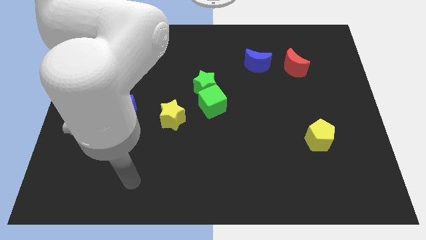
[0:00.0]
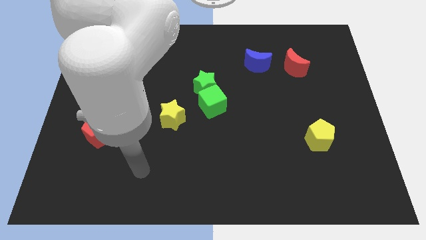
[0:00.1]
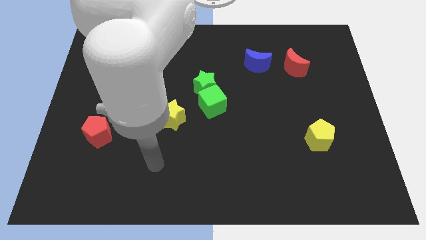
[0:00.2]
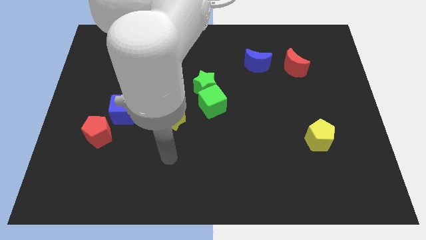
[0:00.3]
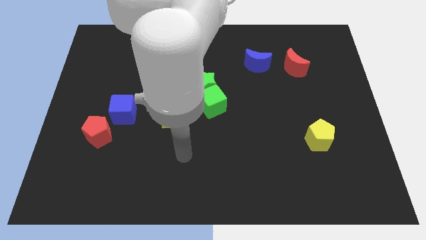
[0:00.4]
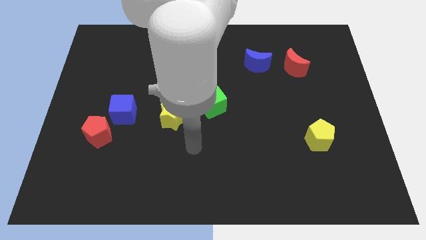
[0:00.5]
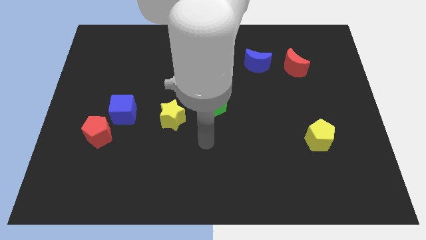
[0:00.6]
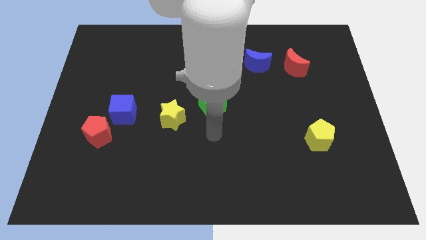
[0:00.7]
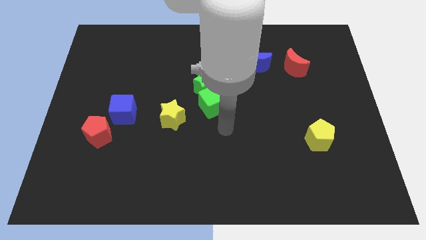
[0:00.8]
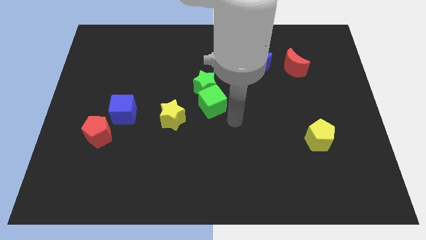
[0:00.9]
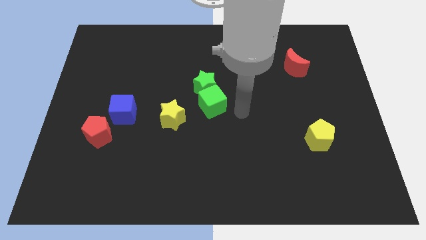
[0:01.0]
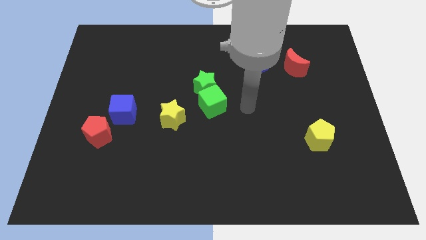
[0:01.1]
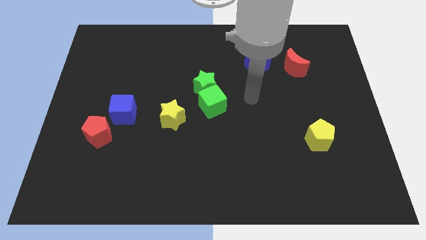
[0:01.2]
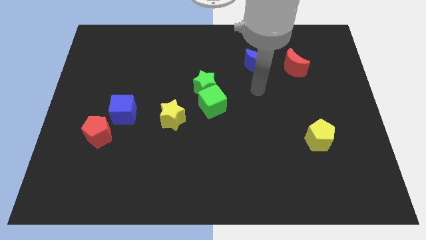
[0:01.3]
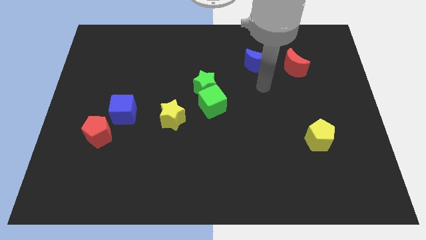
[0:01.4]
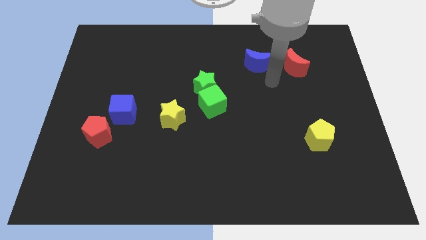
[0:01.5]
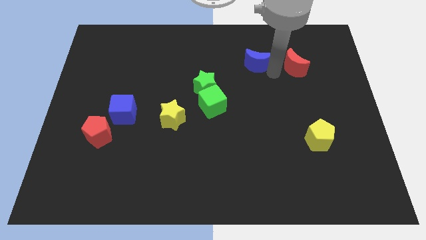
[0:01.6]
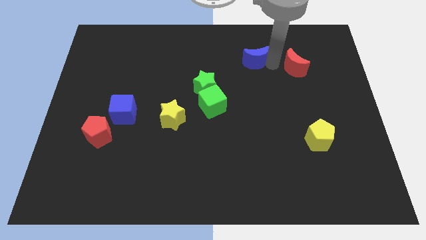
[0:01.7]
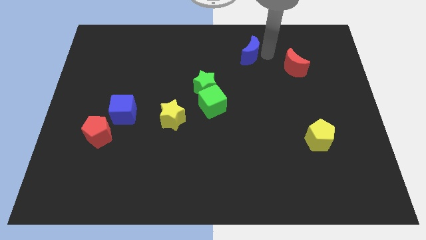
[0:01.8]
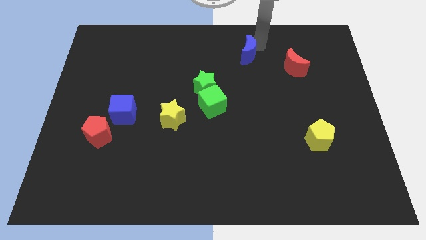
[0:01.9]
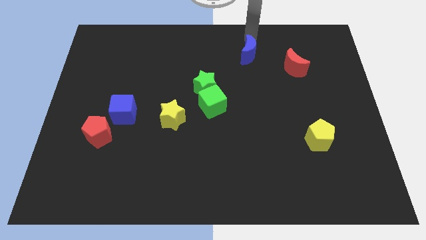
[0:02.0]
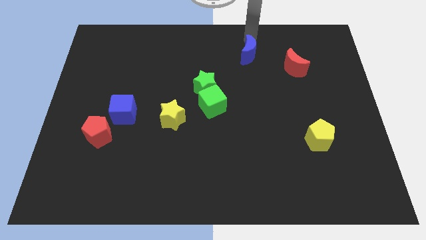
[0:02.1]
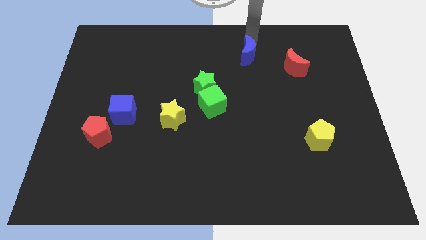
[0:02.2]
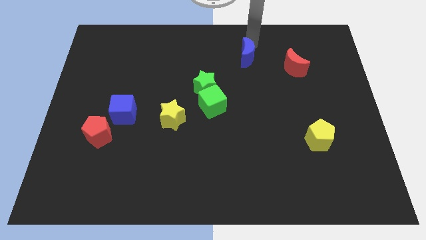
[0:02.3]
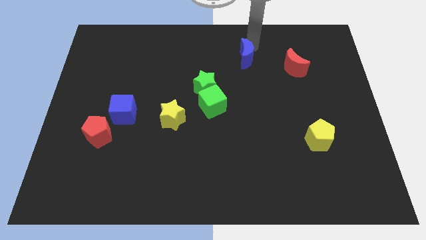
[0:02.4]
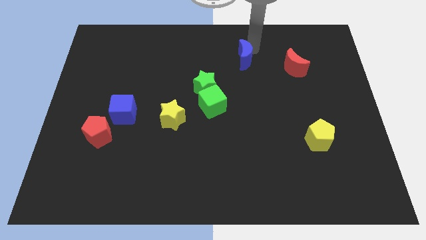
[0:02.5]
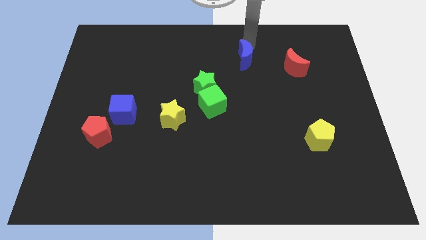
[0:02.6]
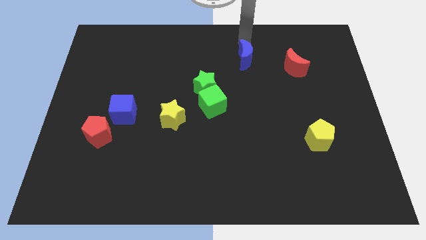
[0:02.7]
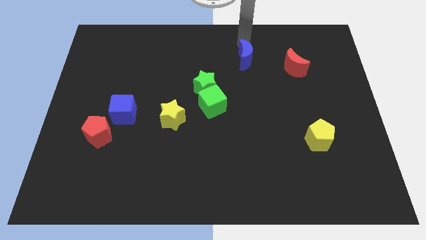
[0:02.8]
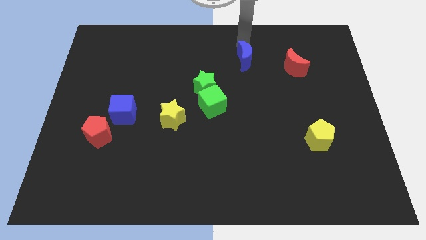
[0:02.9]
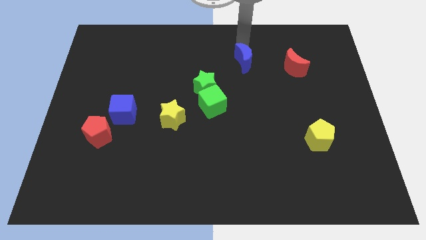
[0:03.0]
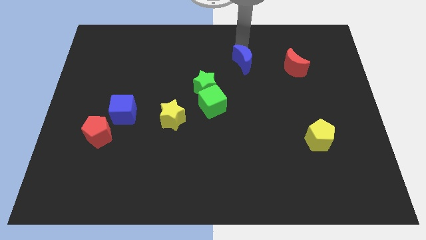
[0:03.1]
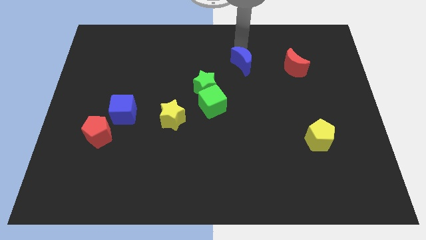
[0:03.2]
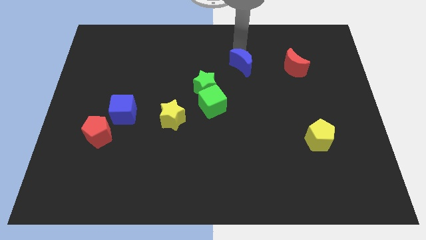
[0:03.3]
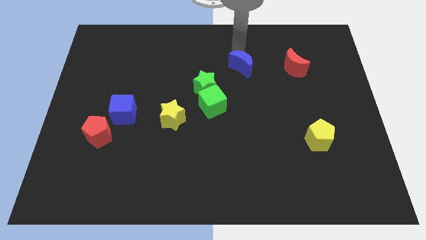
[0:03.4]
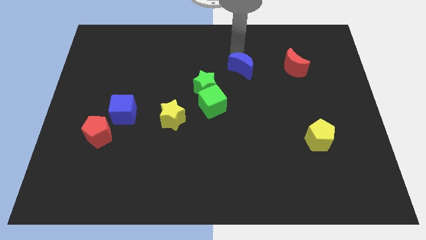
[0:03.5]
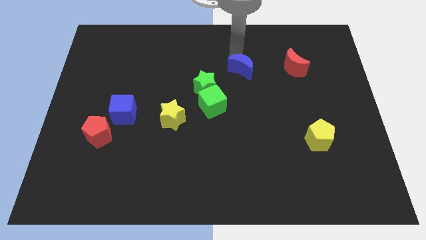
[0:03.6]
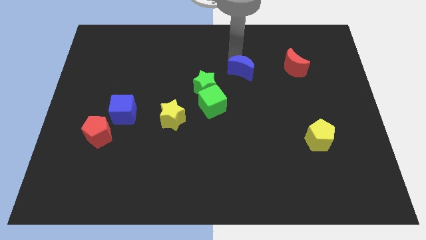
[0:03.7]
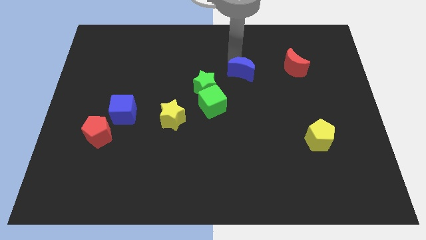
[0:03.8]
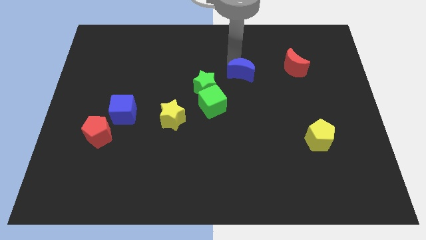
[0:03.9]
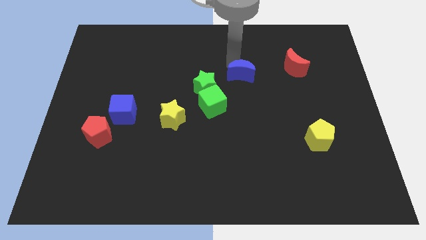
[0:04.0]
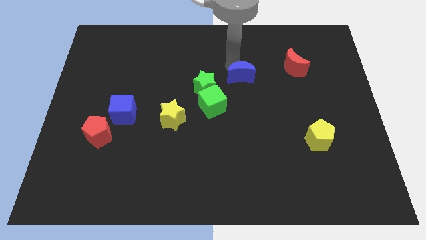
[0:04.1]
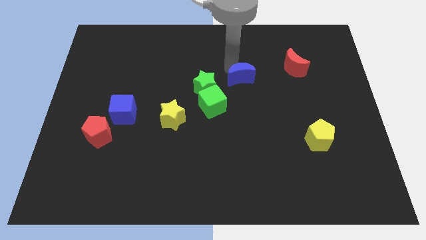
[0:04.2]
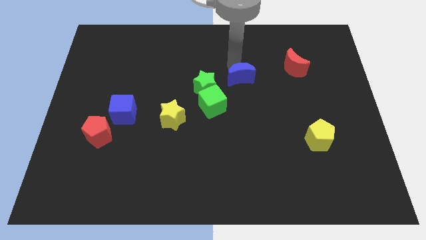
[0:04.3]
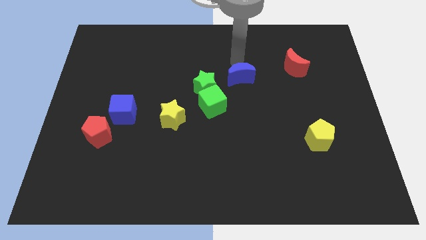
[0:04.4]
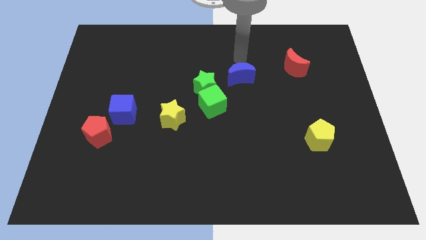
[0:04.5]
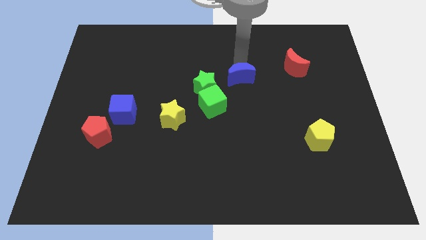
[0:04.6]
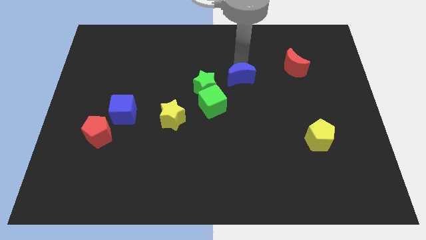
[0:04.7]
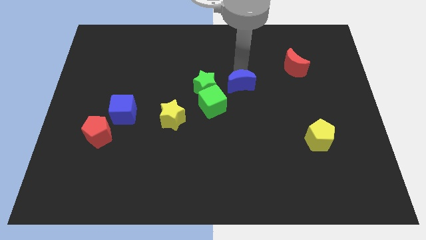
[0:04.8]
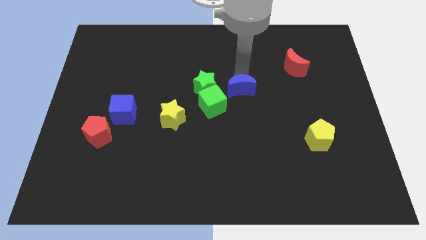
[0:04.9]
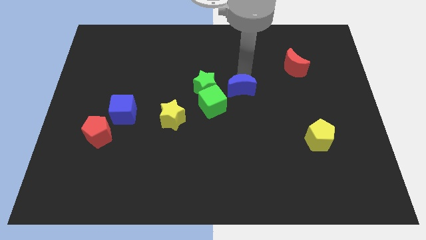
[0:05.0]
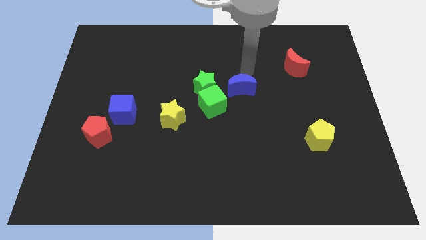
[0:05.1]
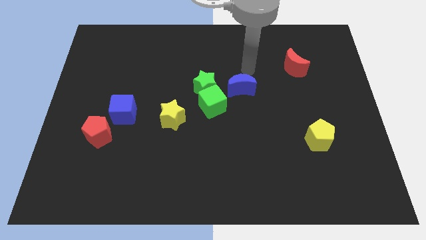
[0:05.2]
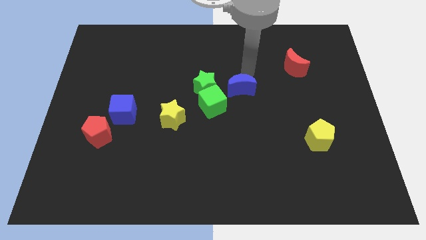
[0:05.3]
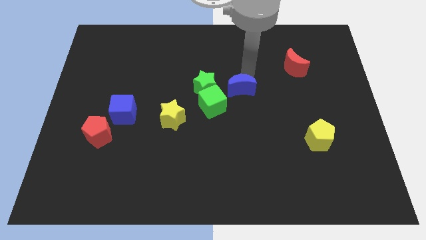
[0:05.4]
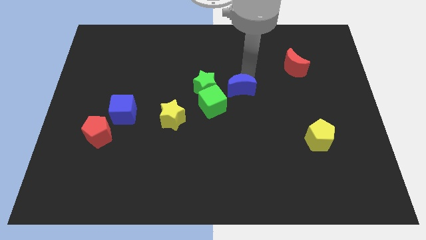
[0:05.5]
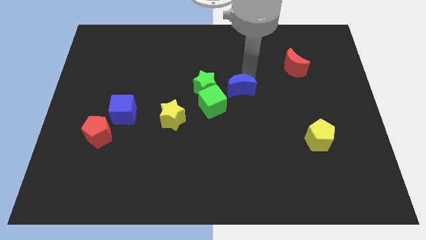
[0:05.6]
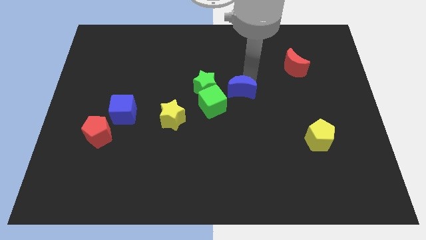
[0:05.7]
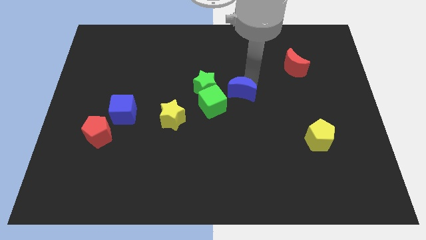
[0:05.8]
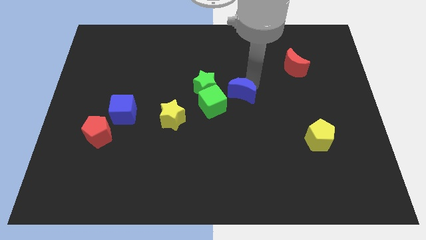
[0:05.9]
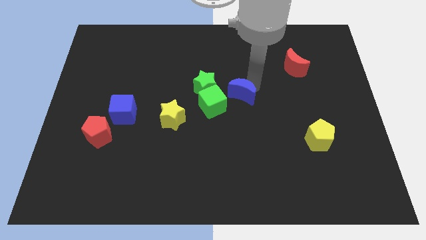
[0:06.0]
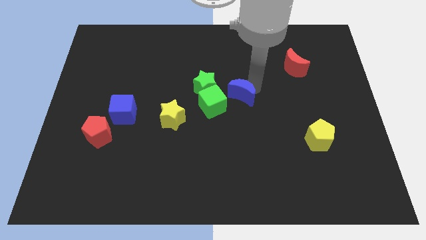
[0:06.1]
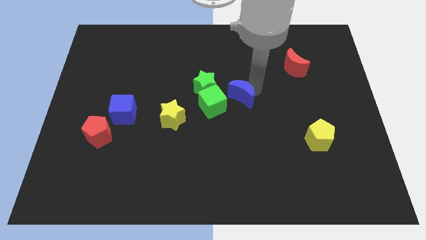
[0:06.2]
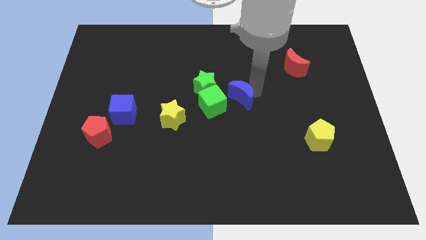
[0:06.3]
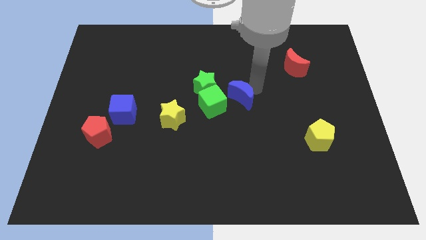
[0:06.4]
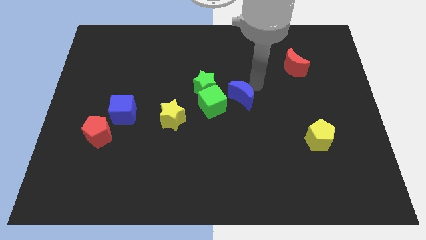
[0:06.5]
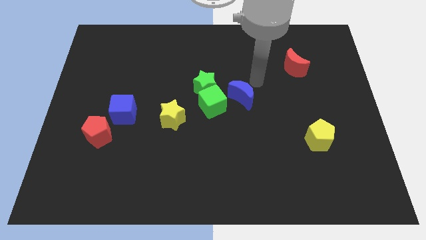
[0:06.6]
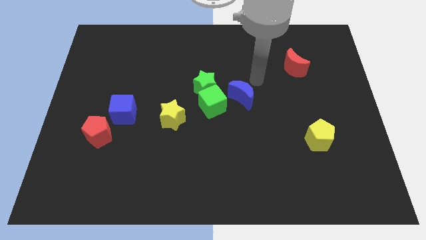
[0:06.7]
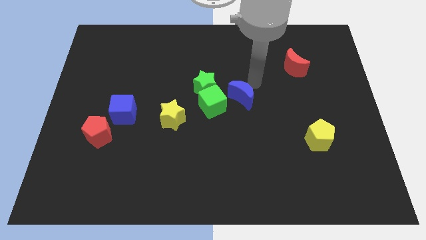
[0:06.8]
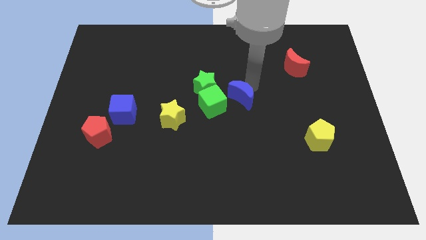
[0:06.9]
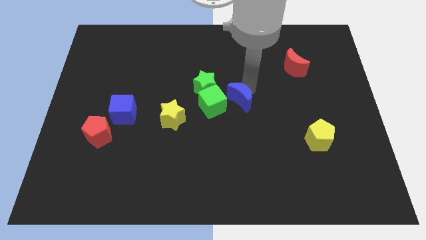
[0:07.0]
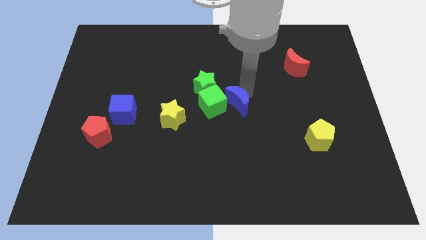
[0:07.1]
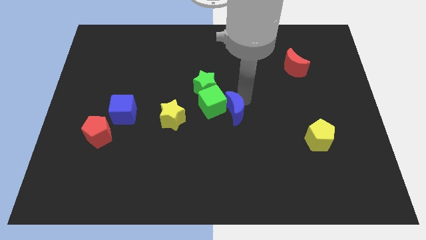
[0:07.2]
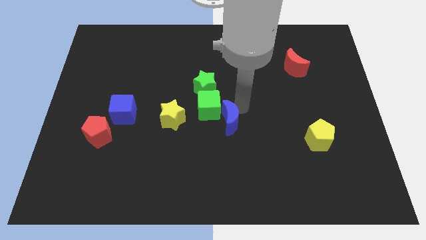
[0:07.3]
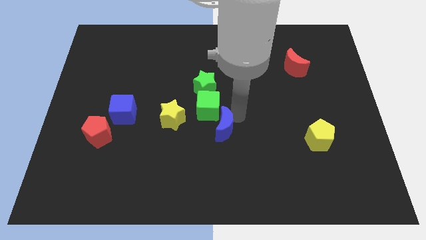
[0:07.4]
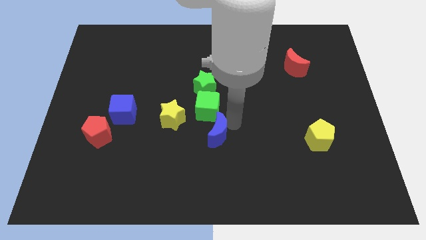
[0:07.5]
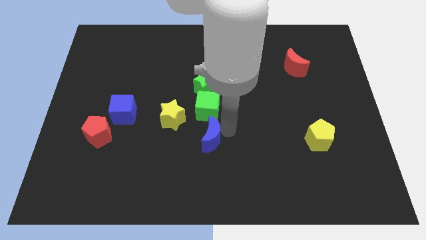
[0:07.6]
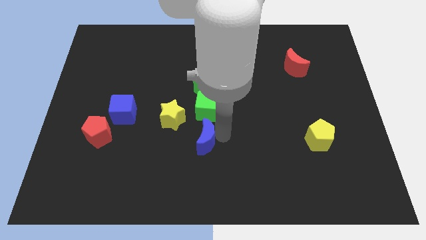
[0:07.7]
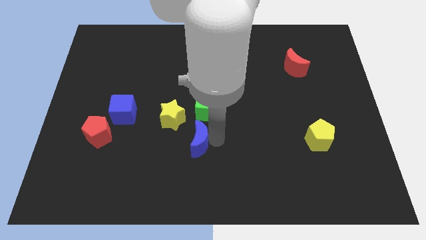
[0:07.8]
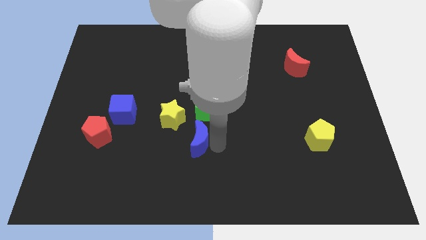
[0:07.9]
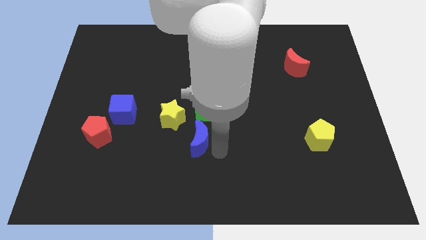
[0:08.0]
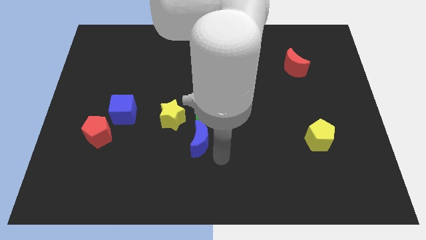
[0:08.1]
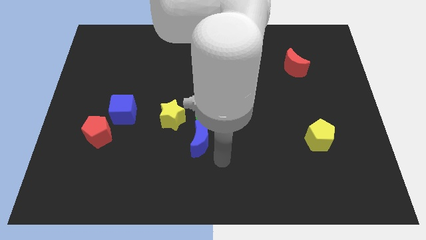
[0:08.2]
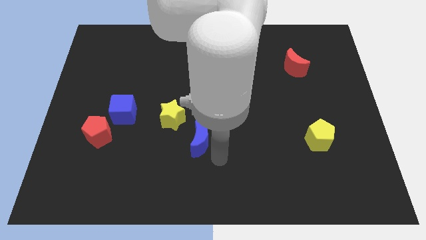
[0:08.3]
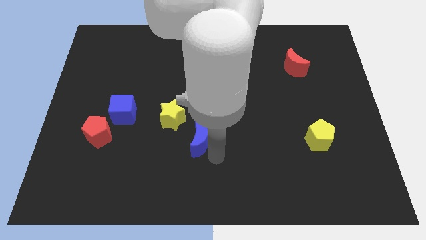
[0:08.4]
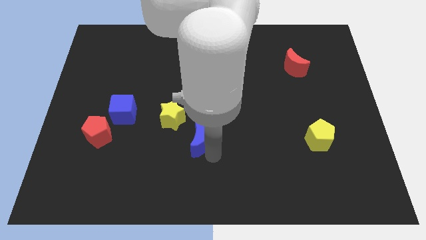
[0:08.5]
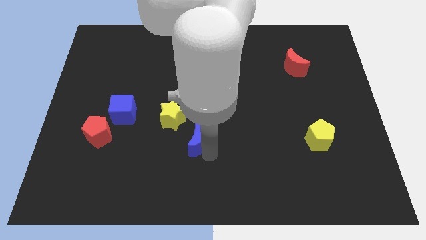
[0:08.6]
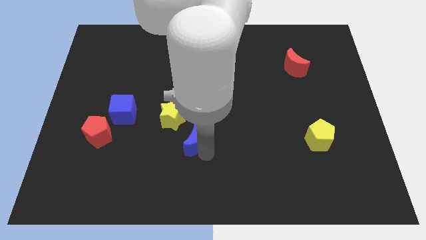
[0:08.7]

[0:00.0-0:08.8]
slide the blue moon to the bottom left side of the green cube
